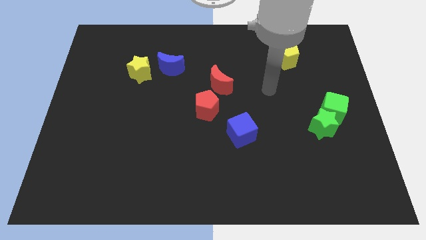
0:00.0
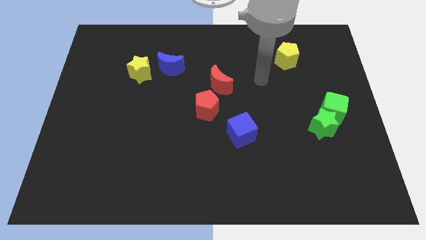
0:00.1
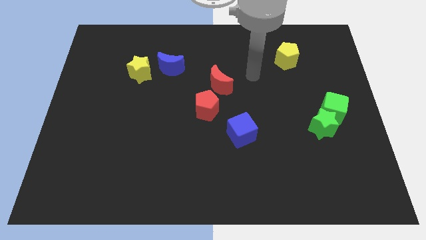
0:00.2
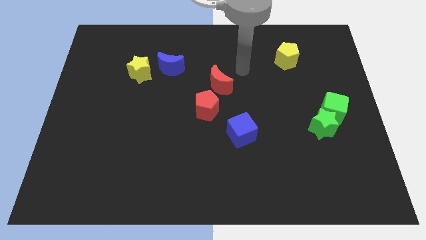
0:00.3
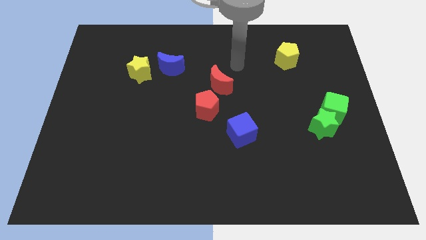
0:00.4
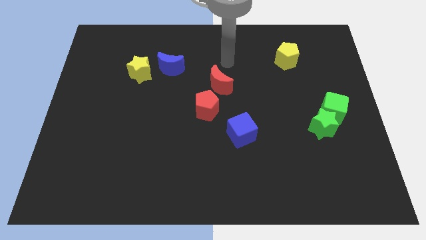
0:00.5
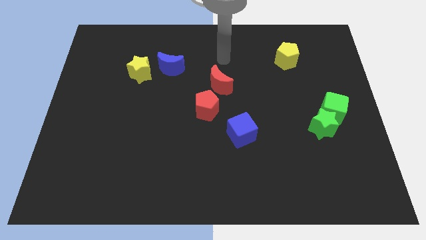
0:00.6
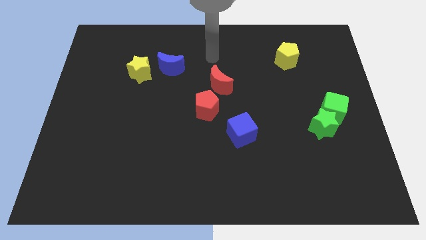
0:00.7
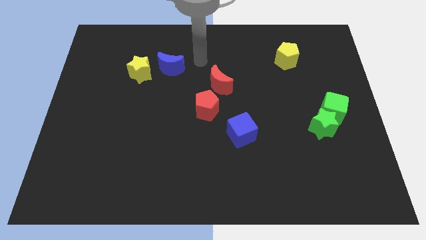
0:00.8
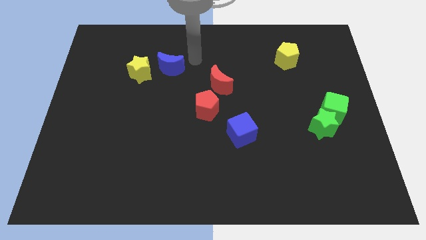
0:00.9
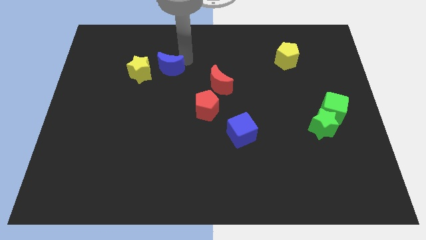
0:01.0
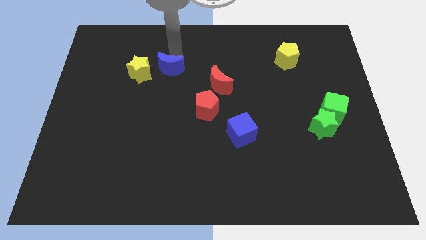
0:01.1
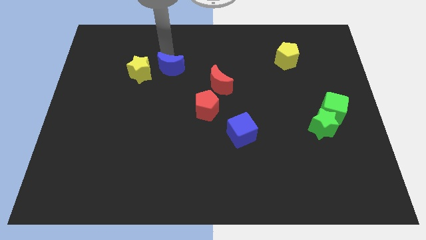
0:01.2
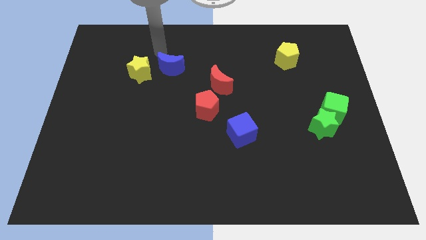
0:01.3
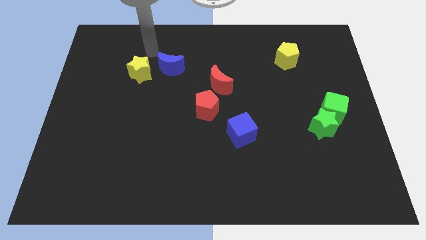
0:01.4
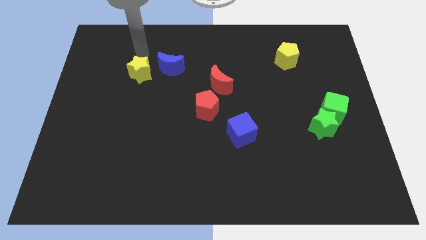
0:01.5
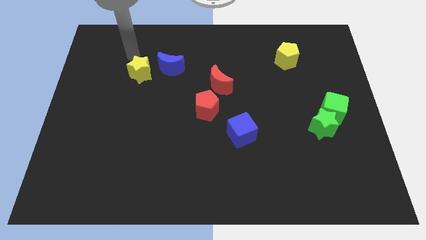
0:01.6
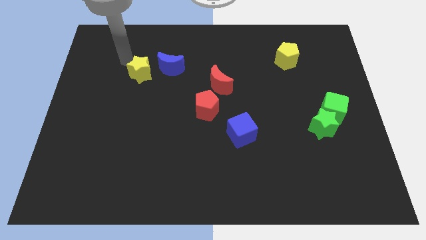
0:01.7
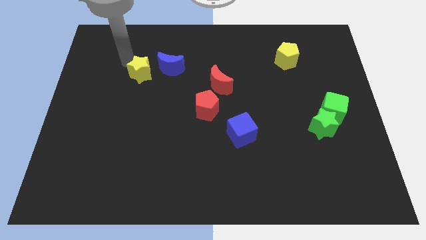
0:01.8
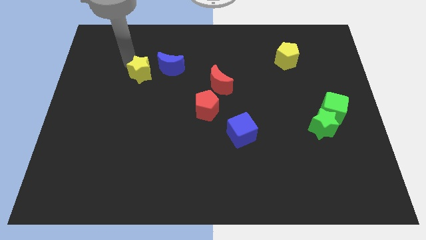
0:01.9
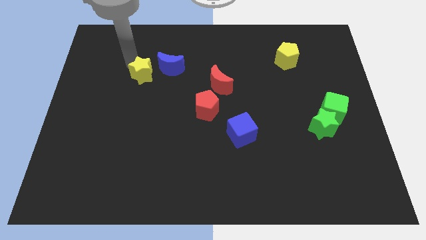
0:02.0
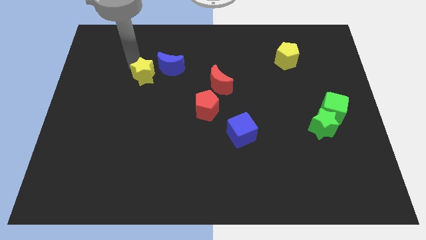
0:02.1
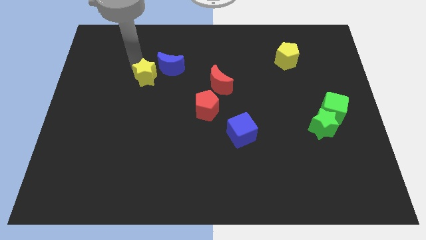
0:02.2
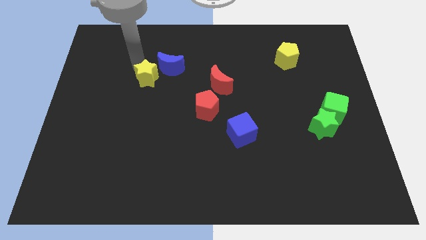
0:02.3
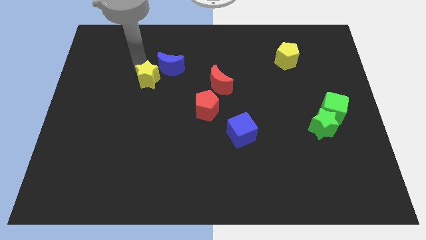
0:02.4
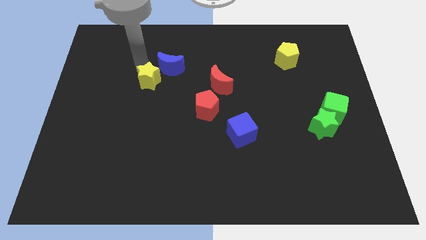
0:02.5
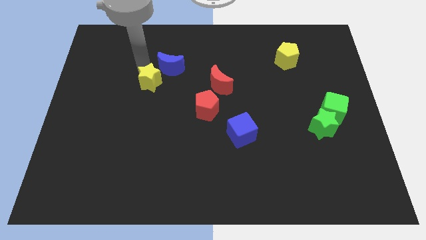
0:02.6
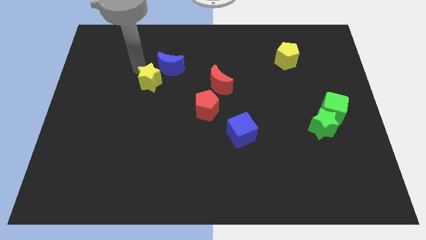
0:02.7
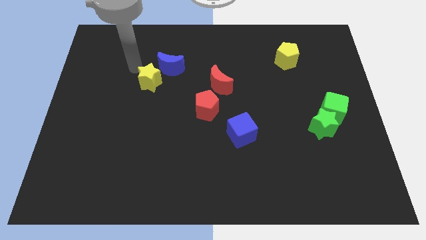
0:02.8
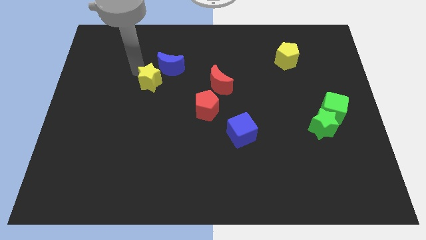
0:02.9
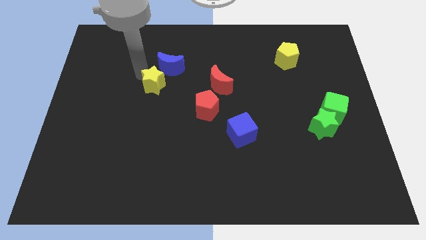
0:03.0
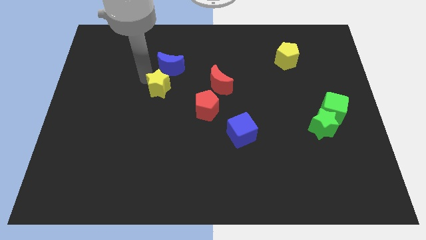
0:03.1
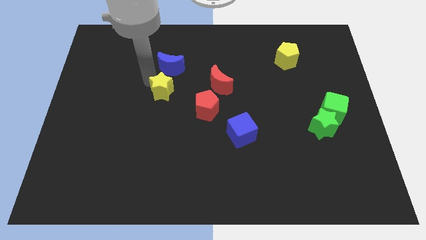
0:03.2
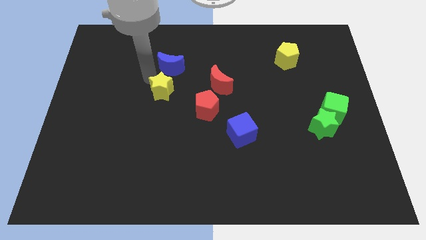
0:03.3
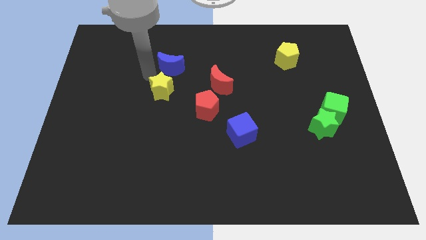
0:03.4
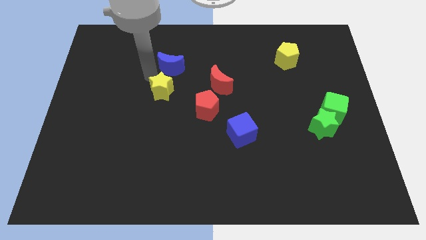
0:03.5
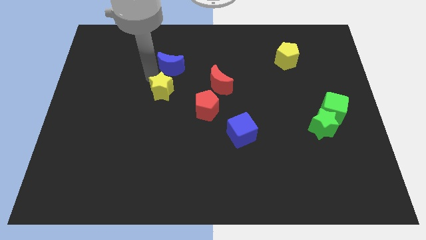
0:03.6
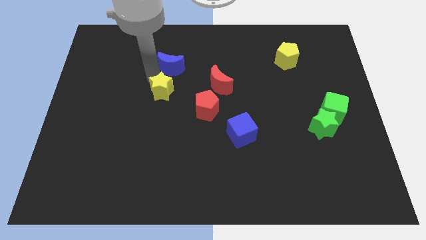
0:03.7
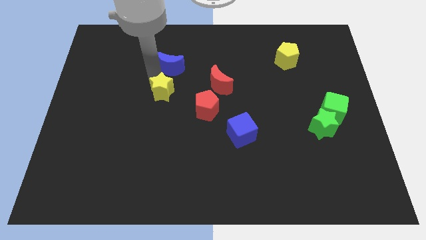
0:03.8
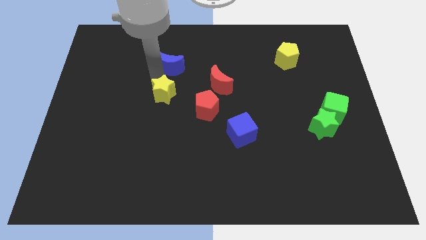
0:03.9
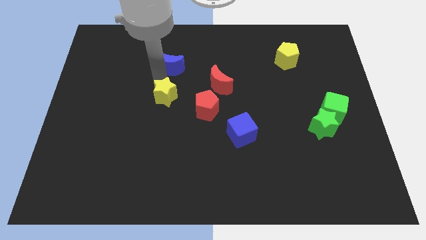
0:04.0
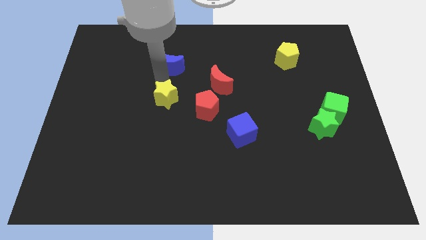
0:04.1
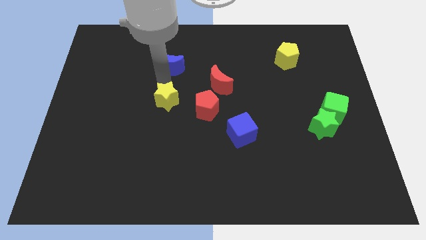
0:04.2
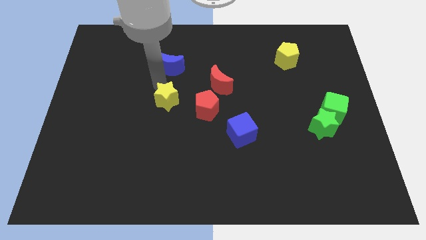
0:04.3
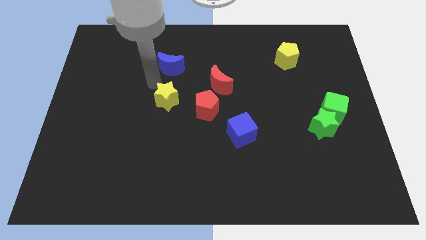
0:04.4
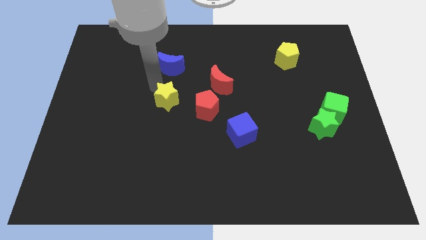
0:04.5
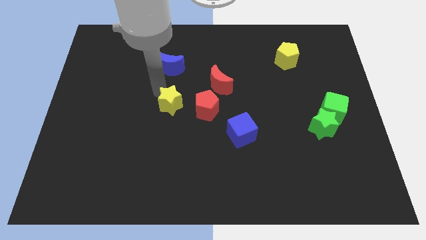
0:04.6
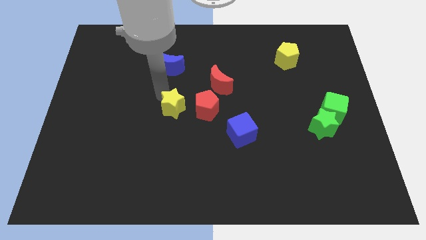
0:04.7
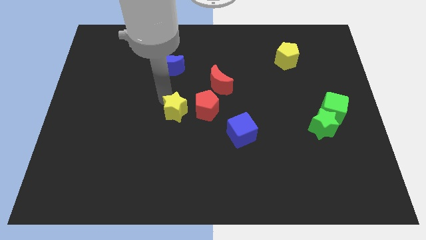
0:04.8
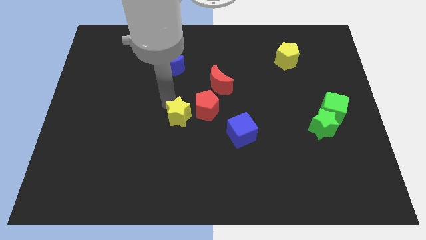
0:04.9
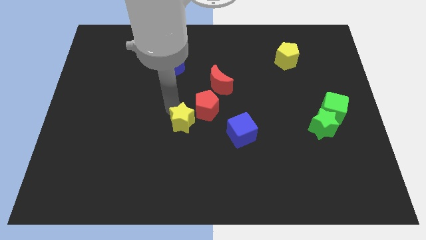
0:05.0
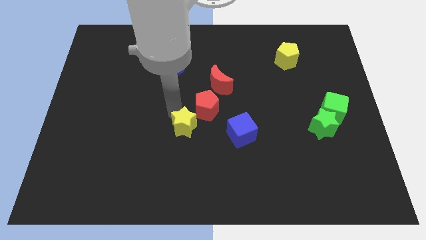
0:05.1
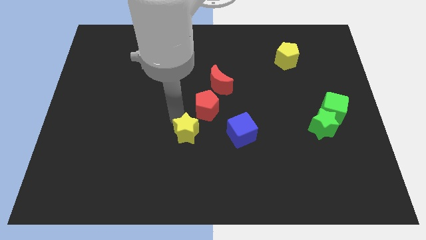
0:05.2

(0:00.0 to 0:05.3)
push the yellow star diagonally downwards and to the right

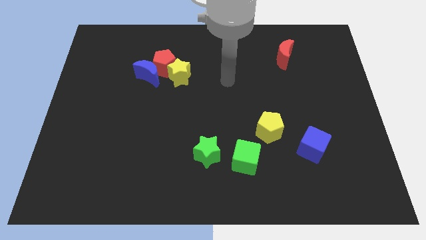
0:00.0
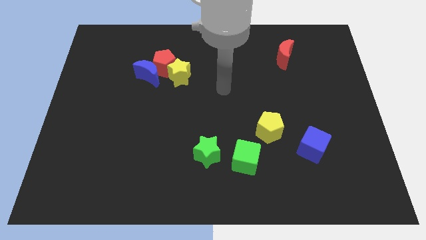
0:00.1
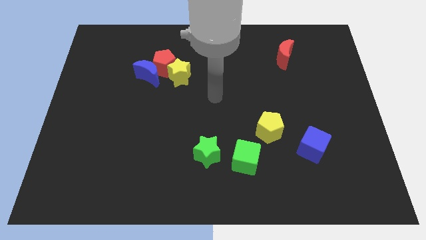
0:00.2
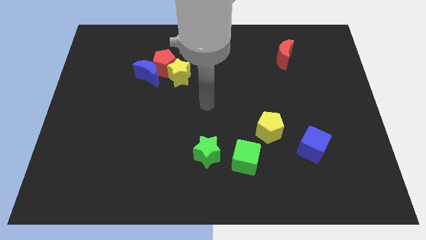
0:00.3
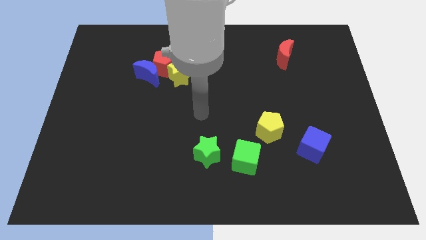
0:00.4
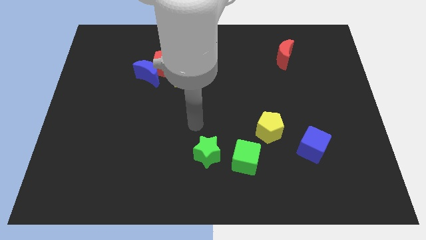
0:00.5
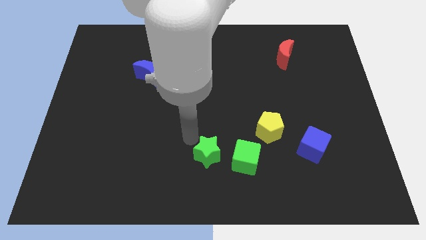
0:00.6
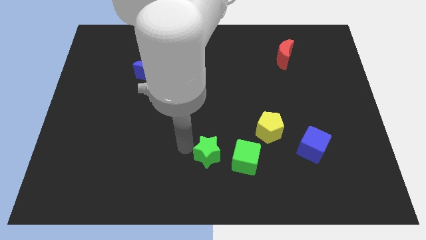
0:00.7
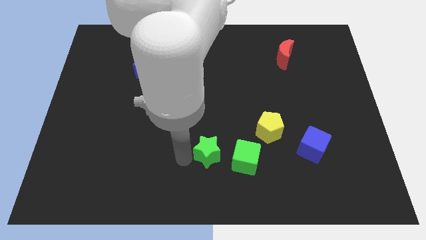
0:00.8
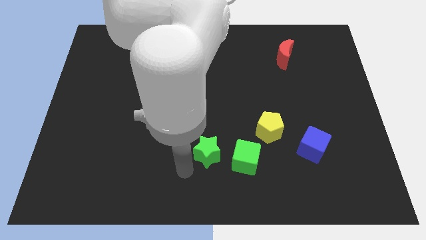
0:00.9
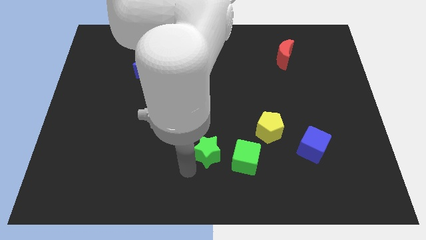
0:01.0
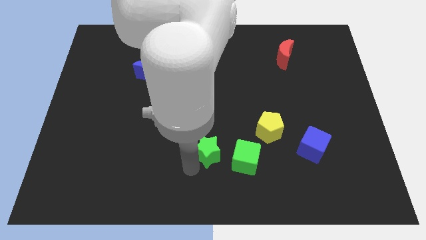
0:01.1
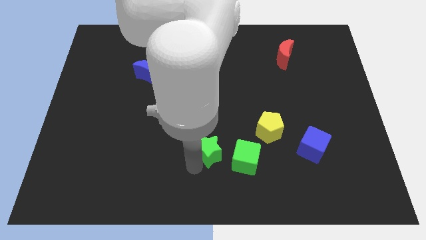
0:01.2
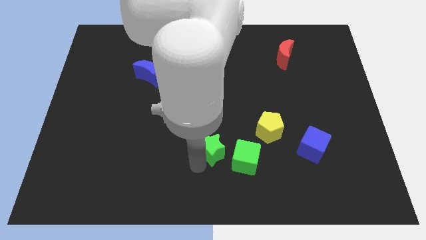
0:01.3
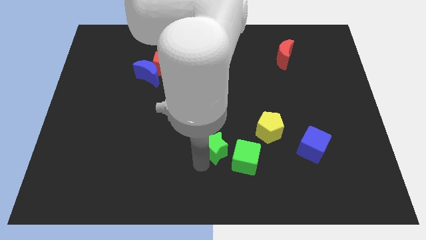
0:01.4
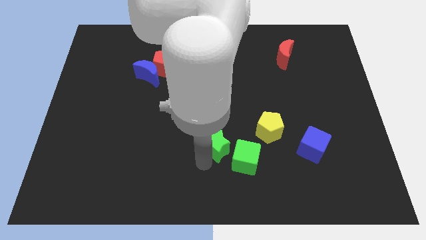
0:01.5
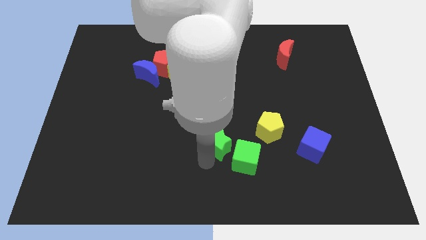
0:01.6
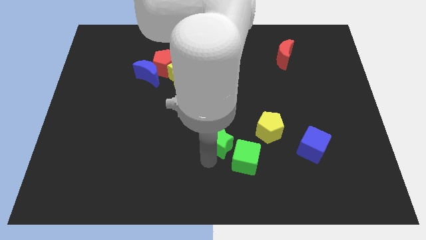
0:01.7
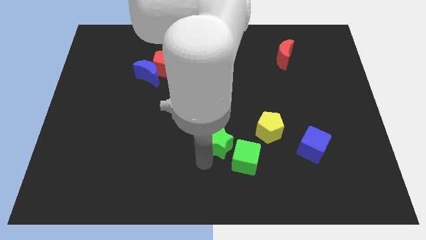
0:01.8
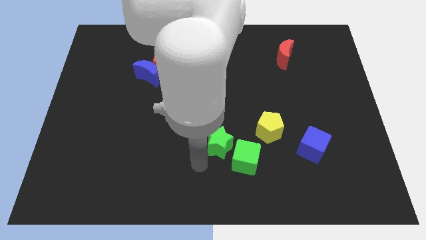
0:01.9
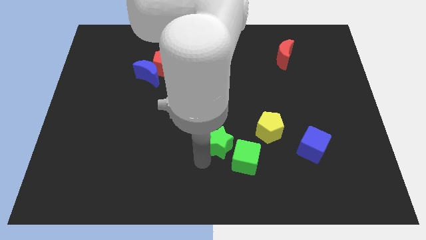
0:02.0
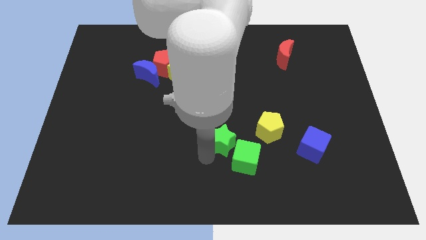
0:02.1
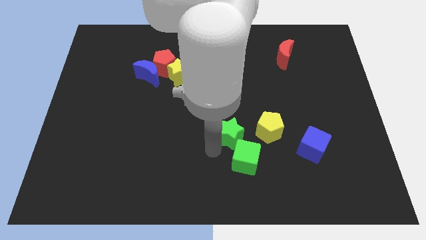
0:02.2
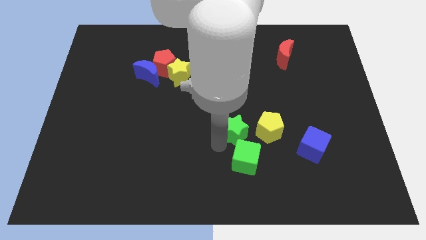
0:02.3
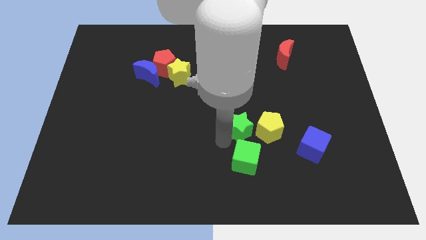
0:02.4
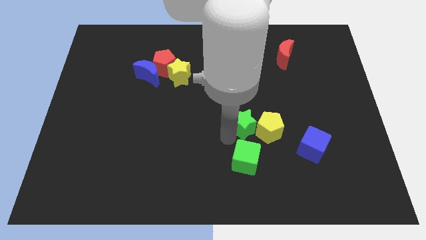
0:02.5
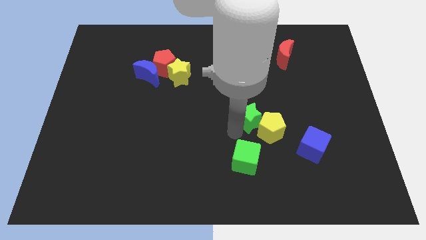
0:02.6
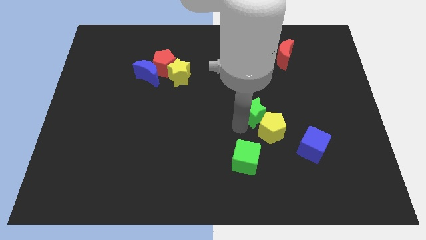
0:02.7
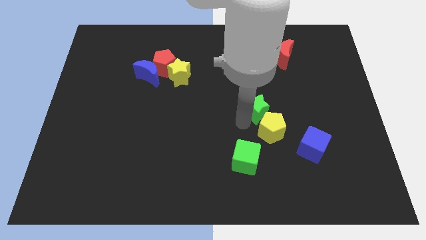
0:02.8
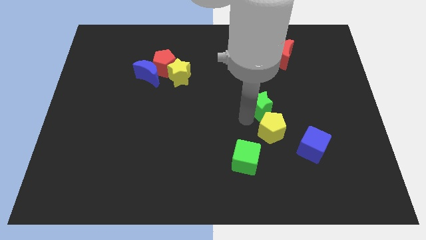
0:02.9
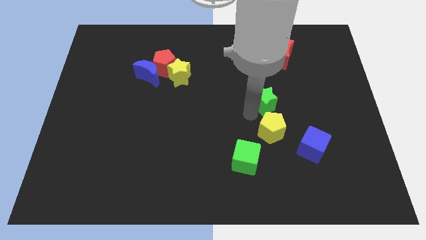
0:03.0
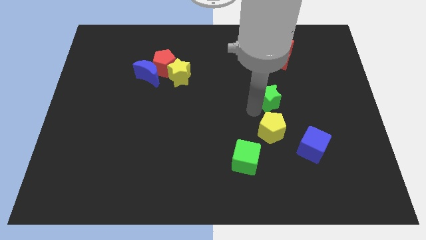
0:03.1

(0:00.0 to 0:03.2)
slide the green star up and to the right diagonally
